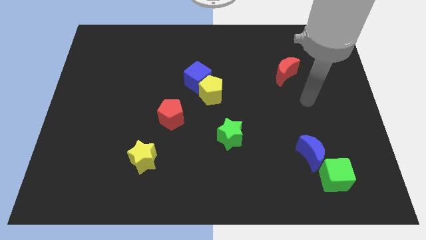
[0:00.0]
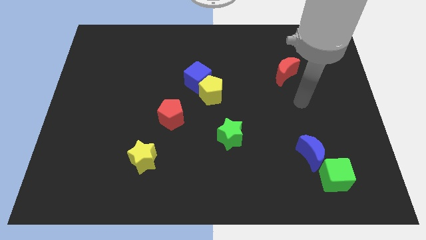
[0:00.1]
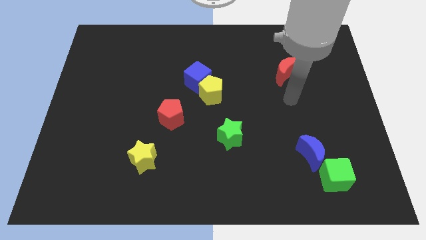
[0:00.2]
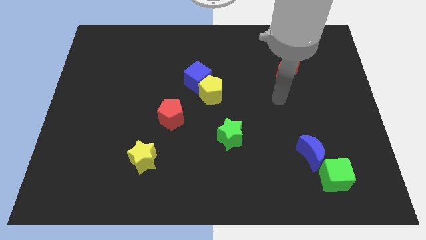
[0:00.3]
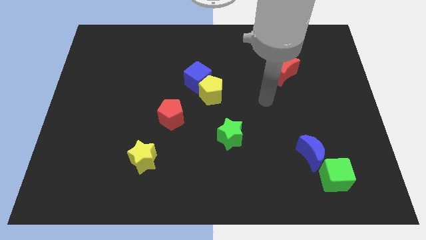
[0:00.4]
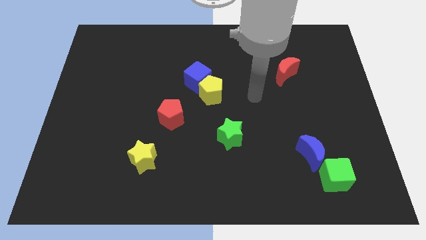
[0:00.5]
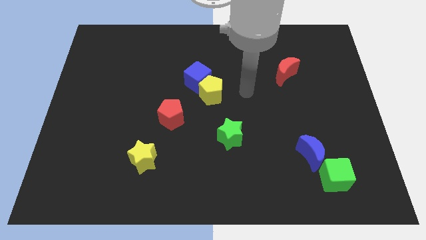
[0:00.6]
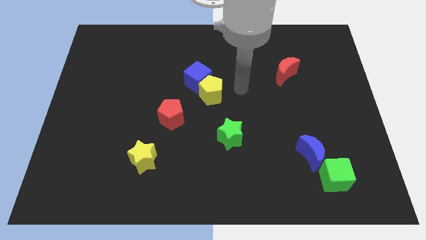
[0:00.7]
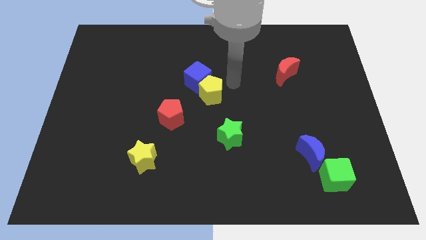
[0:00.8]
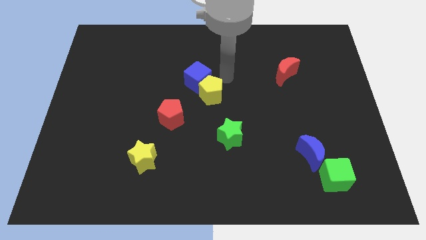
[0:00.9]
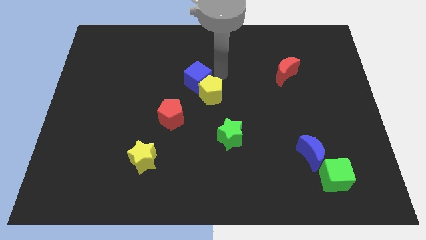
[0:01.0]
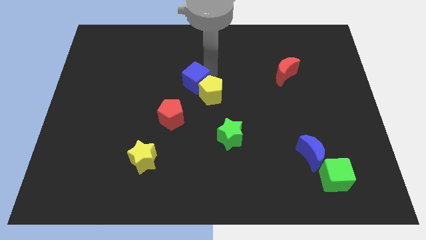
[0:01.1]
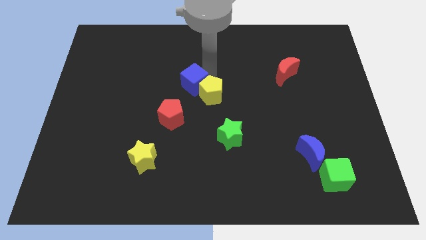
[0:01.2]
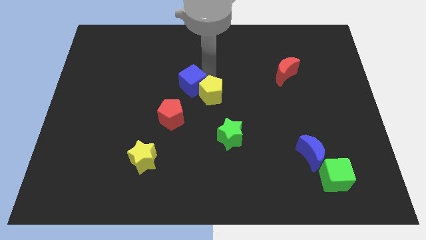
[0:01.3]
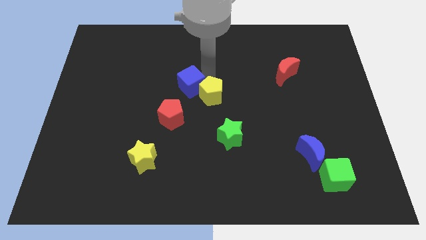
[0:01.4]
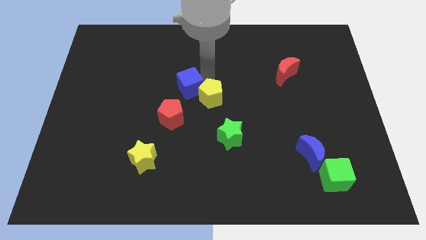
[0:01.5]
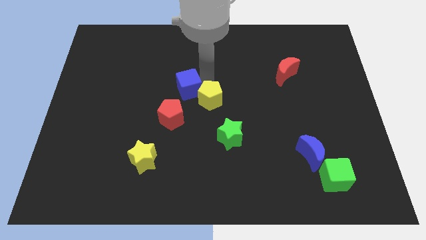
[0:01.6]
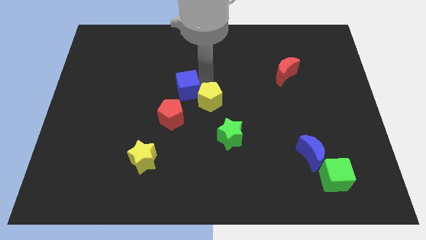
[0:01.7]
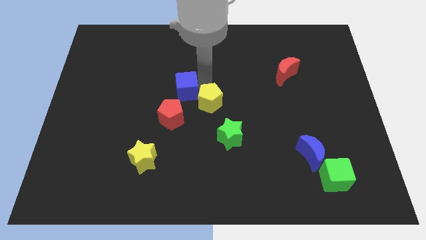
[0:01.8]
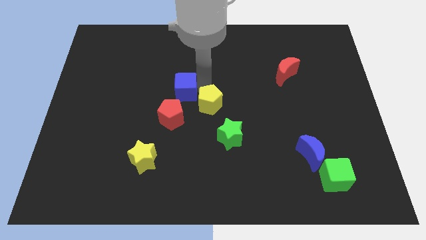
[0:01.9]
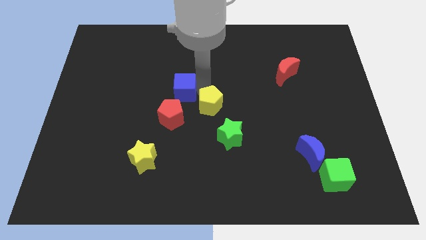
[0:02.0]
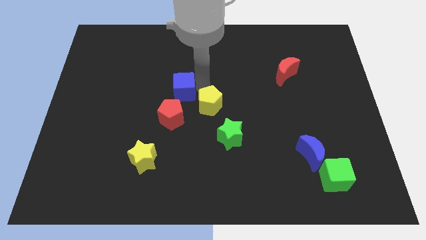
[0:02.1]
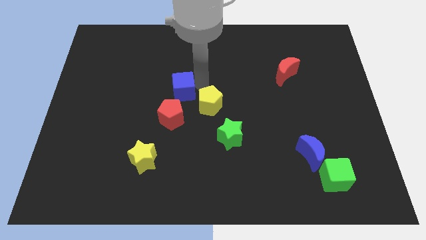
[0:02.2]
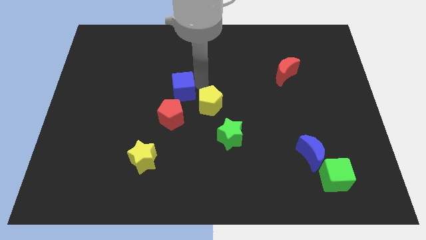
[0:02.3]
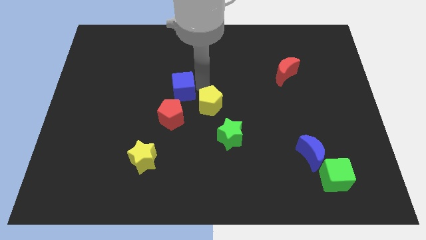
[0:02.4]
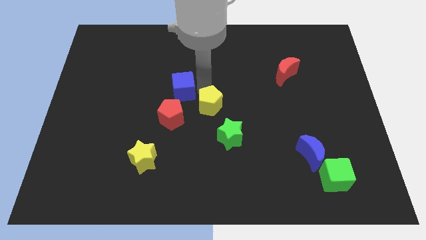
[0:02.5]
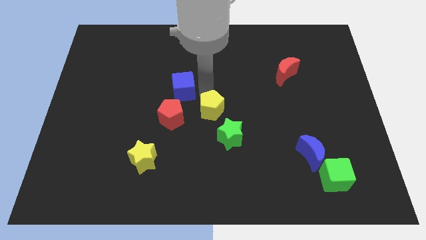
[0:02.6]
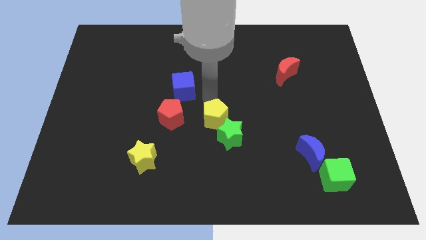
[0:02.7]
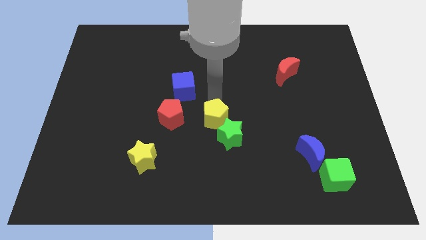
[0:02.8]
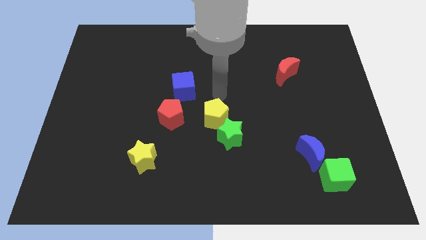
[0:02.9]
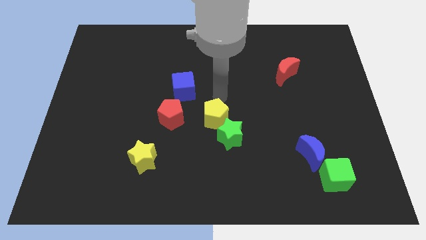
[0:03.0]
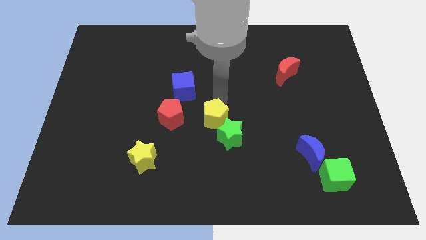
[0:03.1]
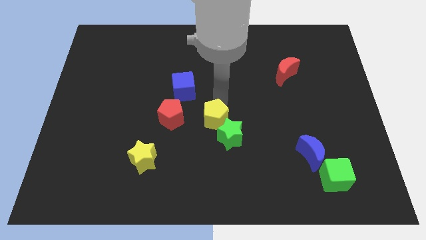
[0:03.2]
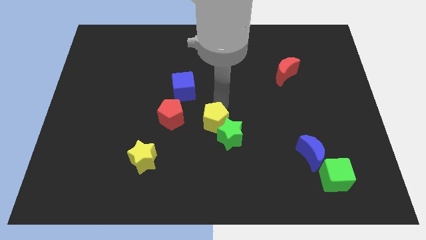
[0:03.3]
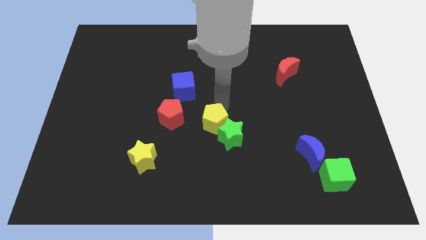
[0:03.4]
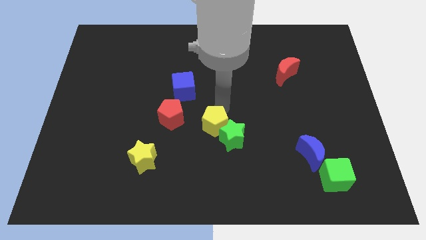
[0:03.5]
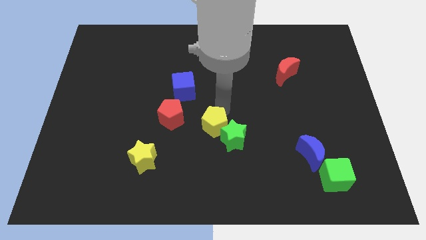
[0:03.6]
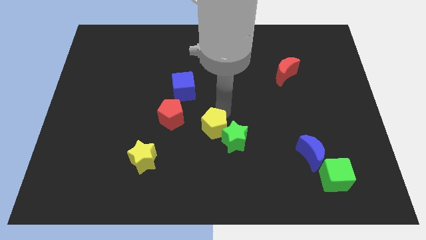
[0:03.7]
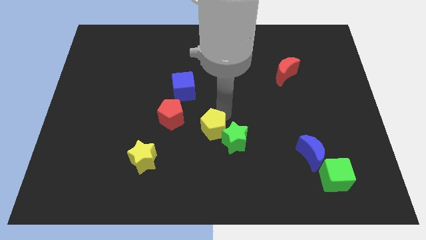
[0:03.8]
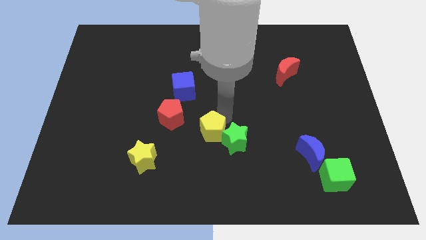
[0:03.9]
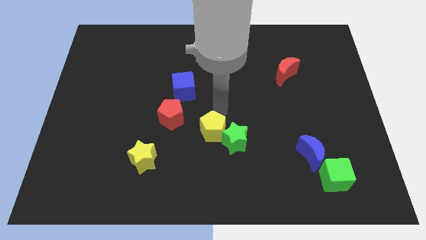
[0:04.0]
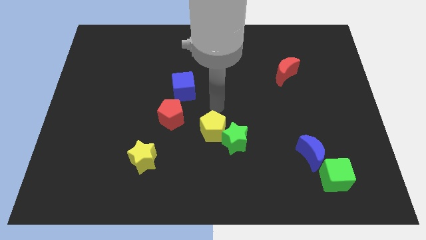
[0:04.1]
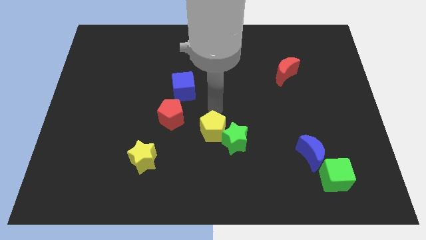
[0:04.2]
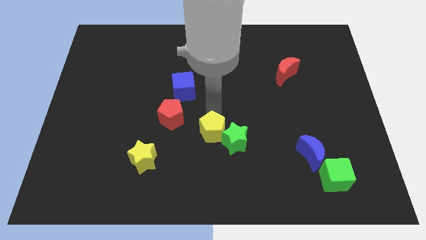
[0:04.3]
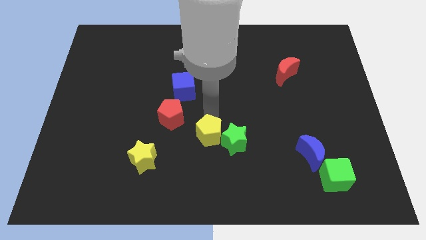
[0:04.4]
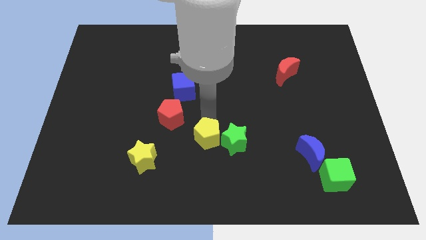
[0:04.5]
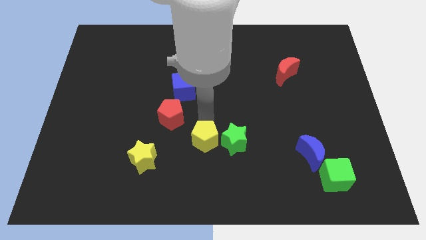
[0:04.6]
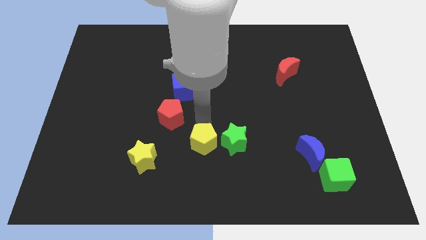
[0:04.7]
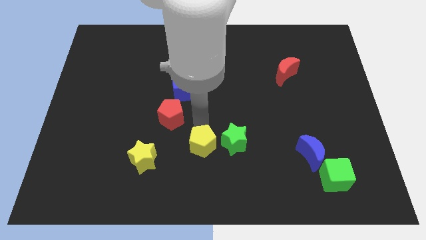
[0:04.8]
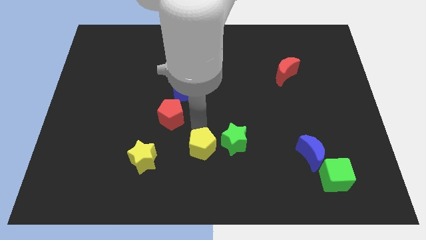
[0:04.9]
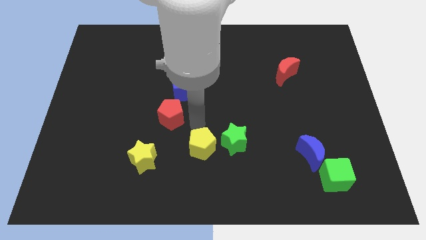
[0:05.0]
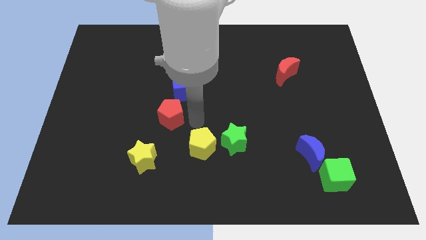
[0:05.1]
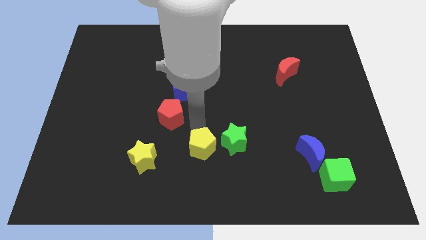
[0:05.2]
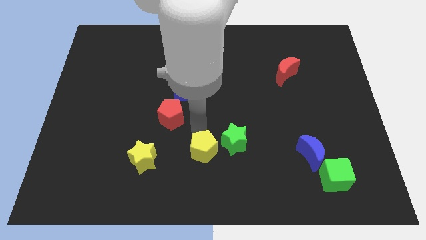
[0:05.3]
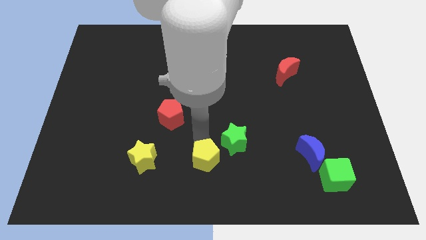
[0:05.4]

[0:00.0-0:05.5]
push the yellow pentagon to the bottom

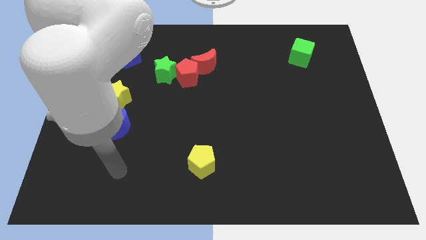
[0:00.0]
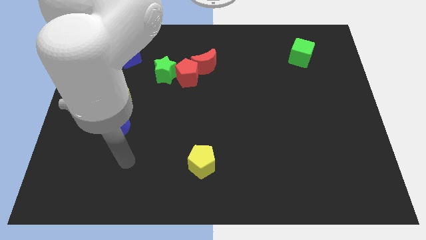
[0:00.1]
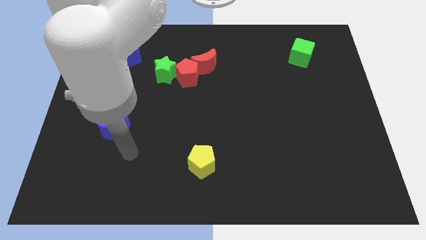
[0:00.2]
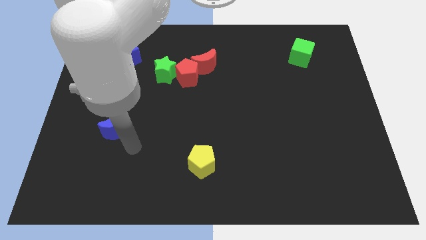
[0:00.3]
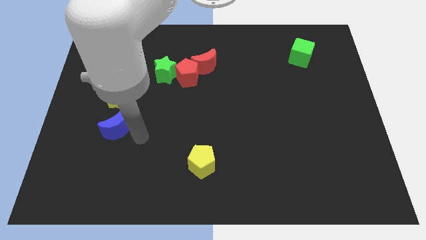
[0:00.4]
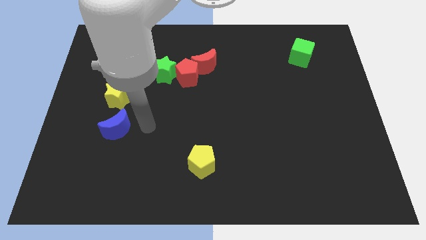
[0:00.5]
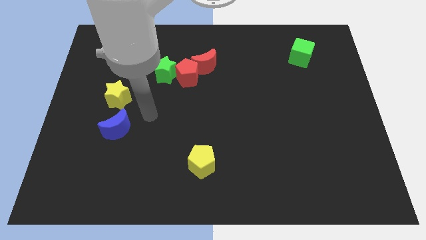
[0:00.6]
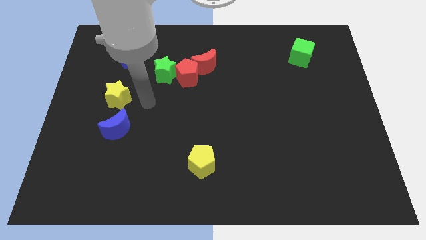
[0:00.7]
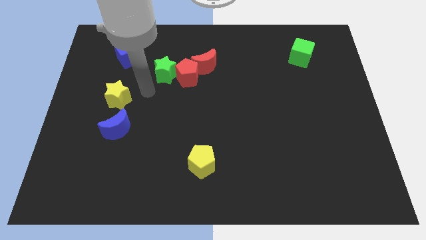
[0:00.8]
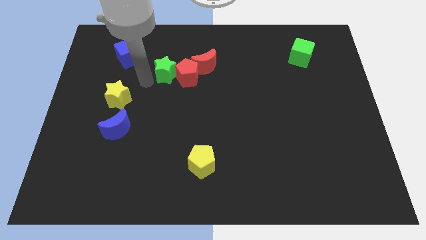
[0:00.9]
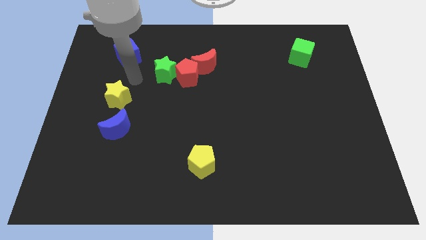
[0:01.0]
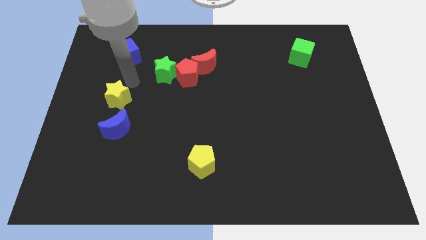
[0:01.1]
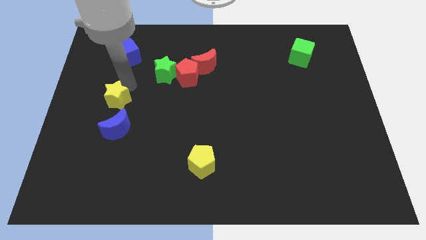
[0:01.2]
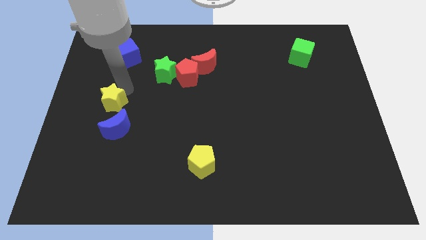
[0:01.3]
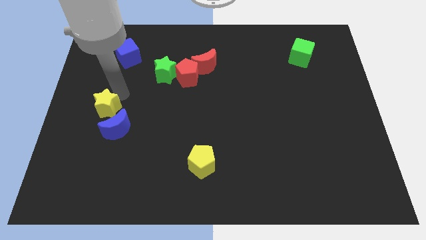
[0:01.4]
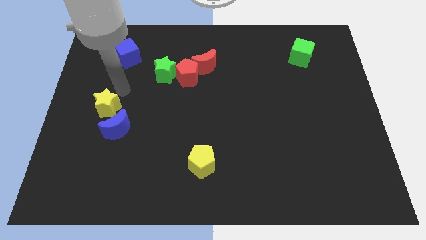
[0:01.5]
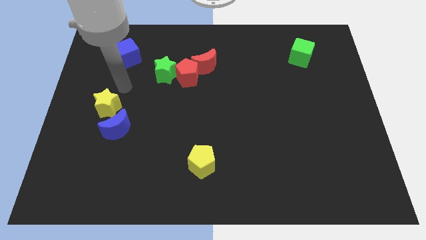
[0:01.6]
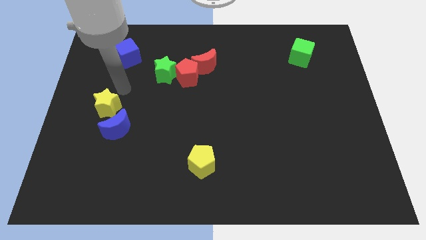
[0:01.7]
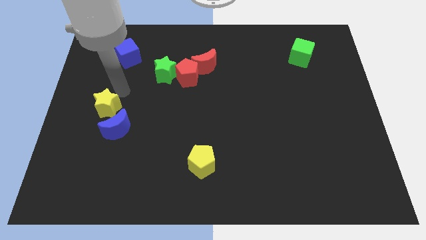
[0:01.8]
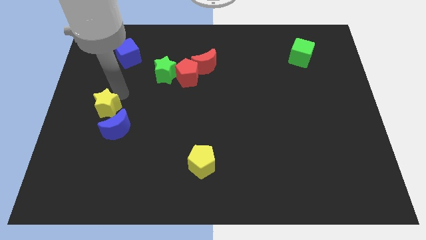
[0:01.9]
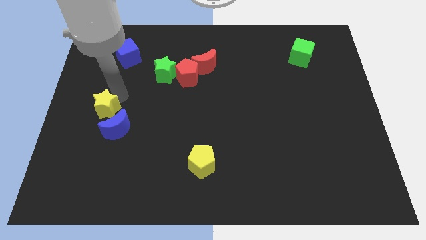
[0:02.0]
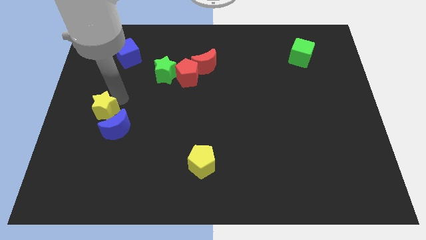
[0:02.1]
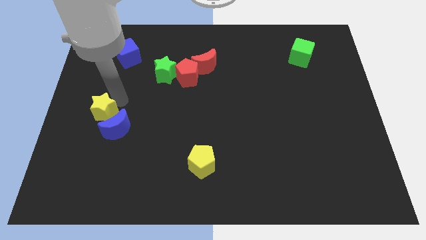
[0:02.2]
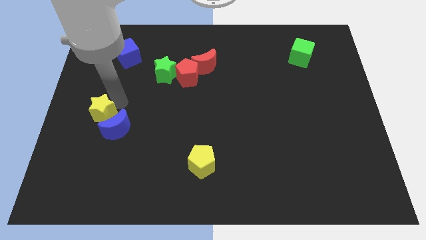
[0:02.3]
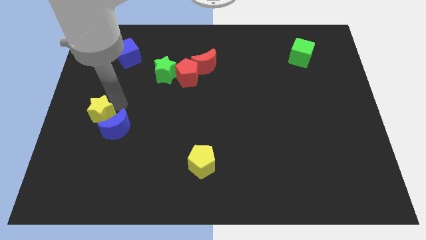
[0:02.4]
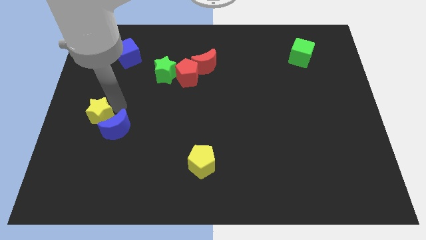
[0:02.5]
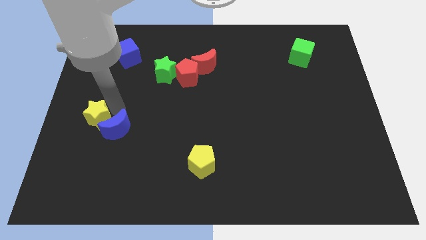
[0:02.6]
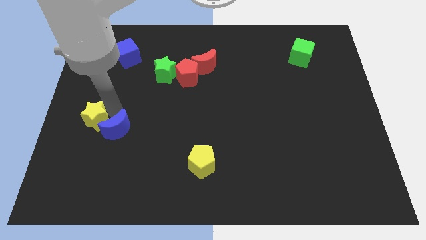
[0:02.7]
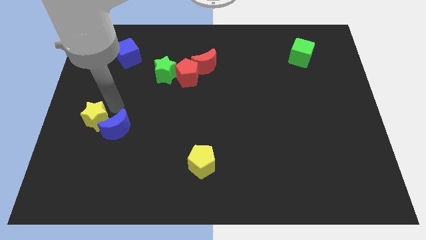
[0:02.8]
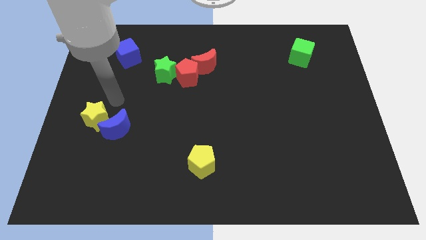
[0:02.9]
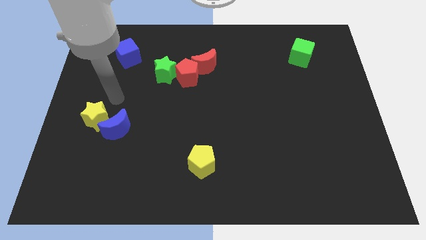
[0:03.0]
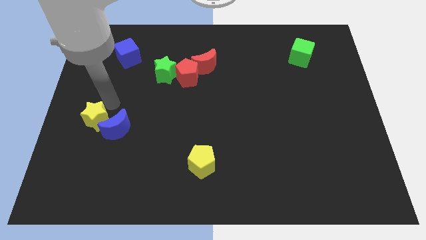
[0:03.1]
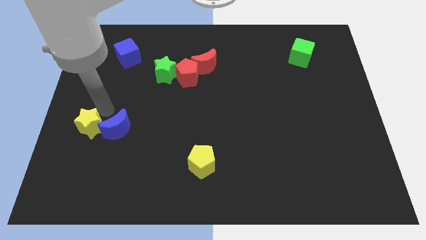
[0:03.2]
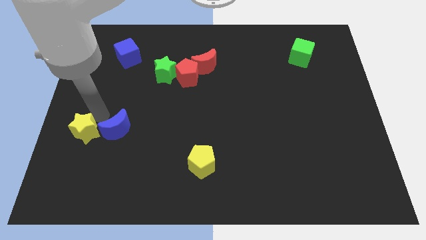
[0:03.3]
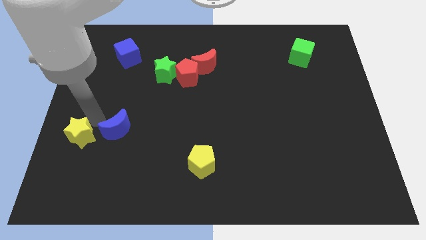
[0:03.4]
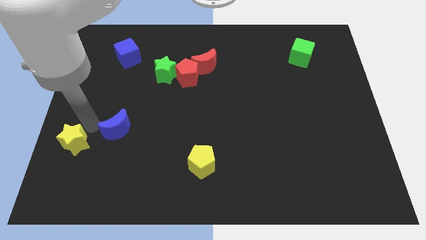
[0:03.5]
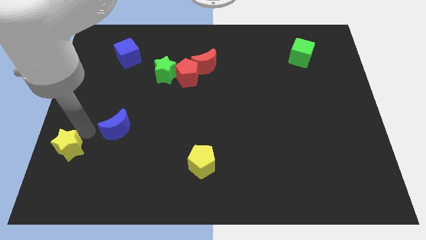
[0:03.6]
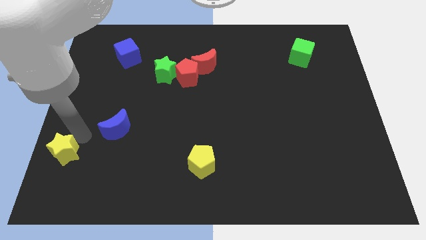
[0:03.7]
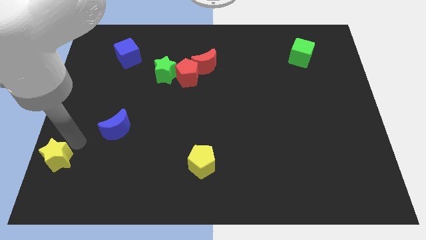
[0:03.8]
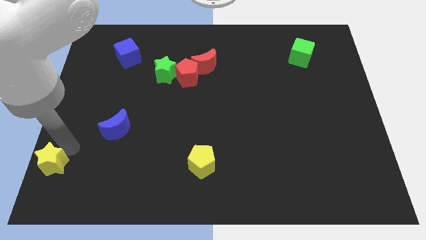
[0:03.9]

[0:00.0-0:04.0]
put the yellow star to the bottom left of the board
